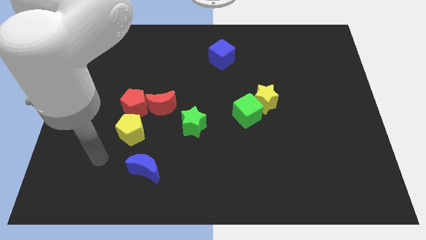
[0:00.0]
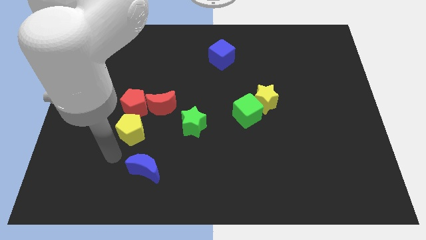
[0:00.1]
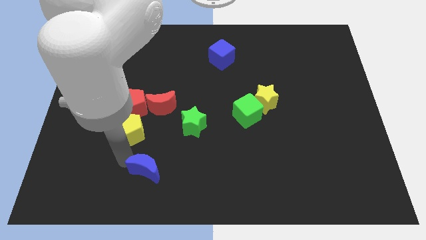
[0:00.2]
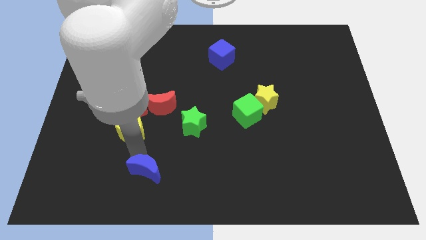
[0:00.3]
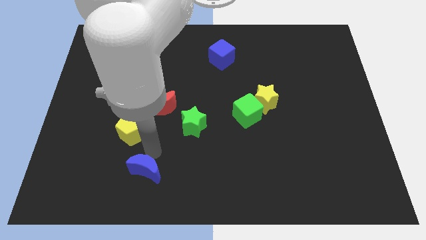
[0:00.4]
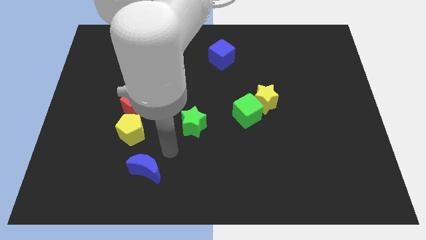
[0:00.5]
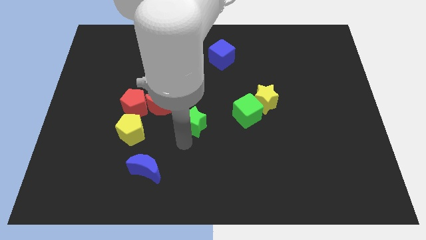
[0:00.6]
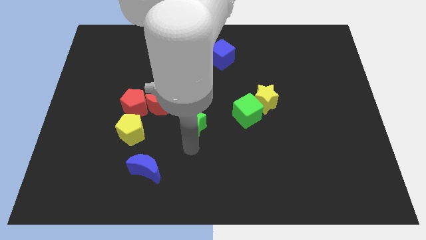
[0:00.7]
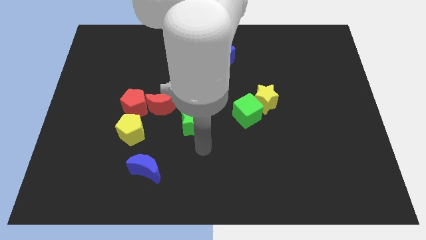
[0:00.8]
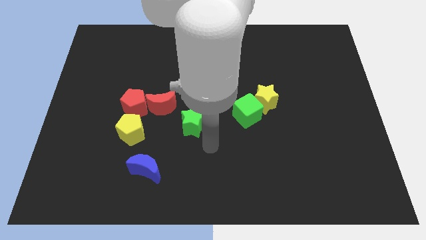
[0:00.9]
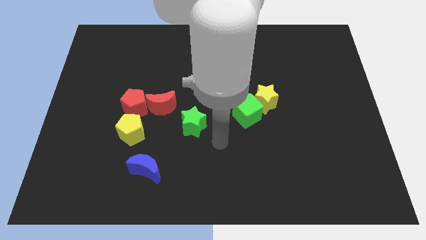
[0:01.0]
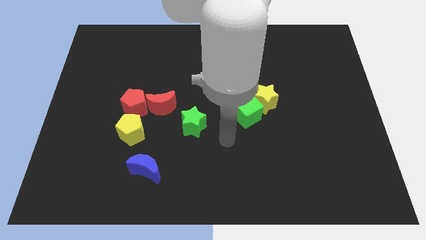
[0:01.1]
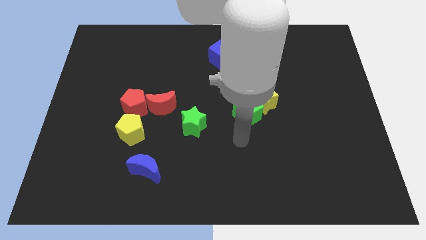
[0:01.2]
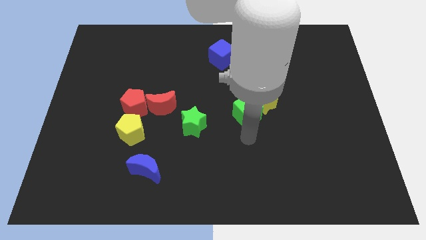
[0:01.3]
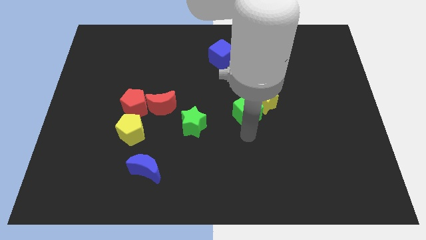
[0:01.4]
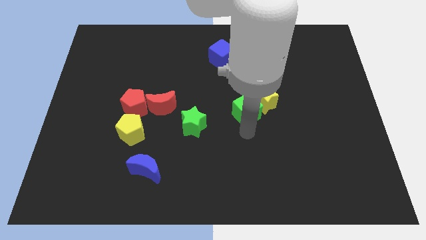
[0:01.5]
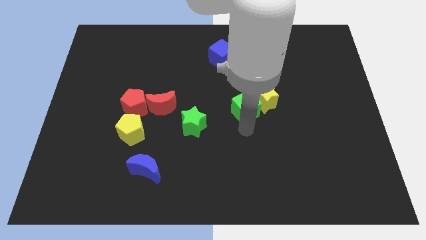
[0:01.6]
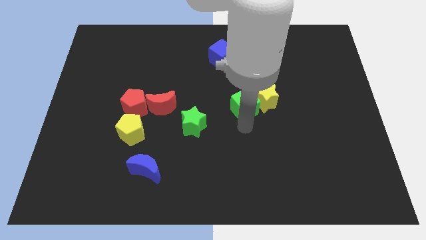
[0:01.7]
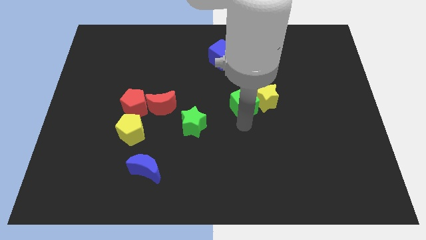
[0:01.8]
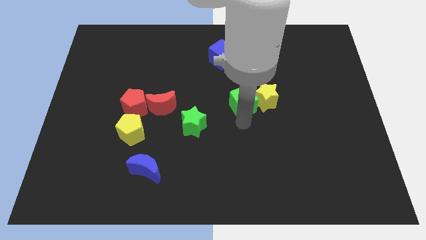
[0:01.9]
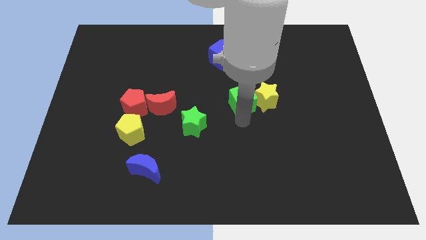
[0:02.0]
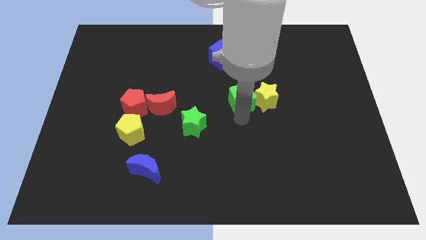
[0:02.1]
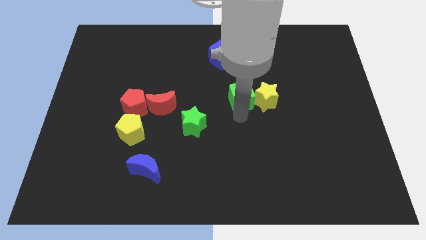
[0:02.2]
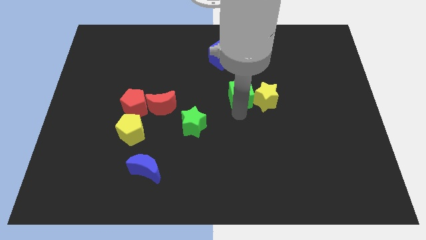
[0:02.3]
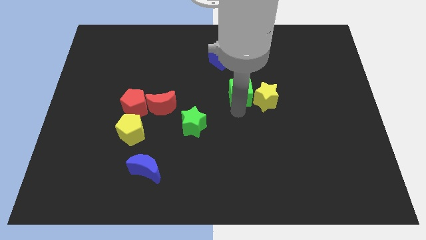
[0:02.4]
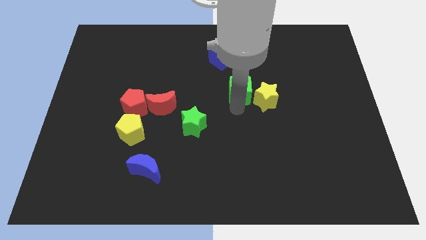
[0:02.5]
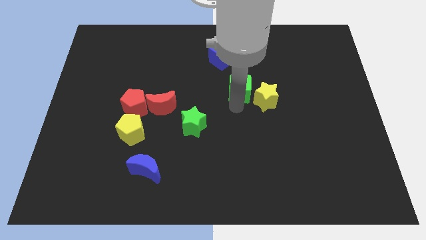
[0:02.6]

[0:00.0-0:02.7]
slide the green cube upwards a little

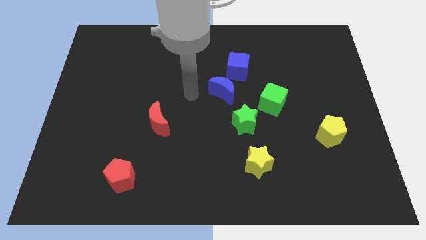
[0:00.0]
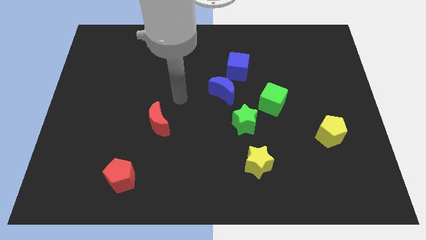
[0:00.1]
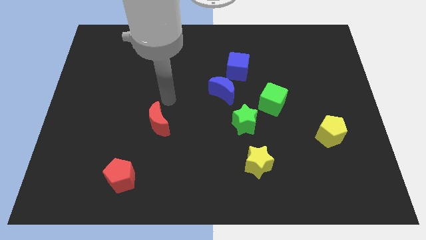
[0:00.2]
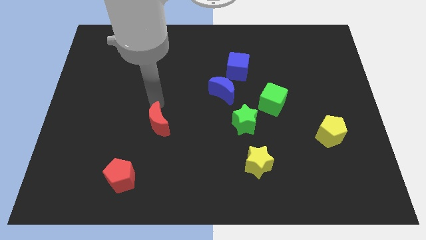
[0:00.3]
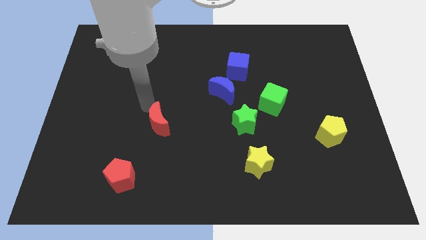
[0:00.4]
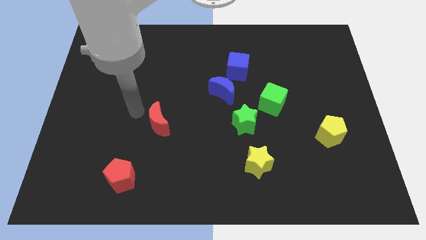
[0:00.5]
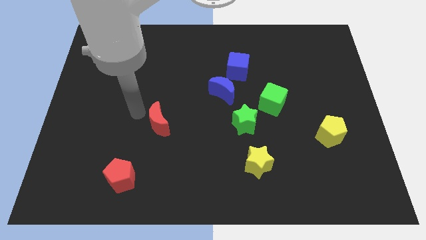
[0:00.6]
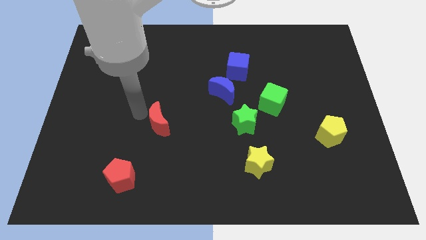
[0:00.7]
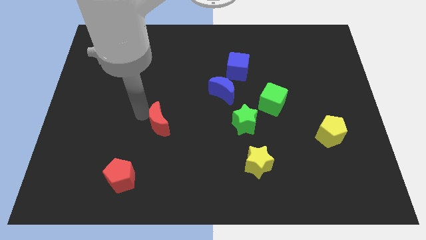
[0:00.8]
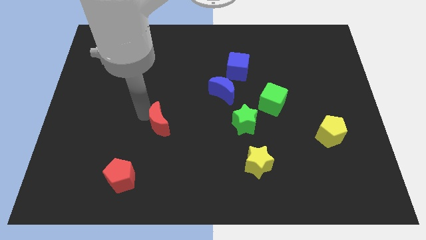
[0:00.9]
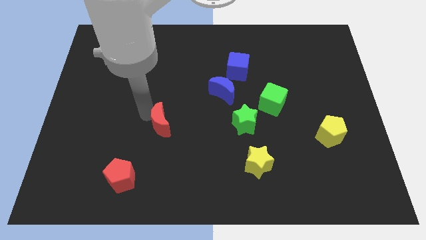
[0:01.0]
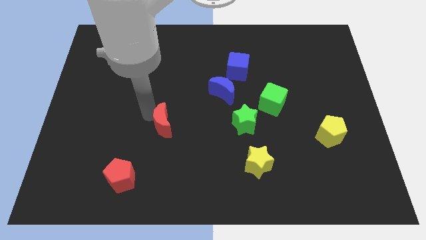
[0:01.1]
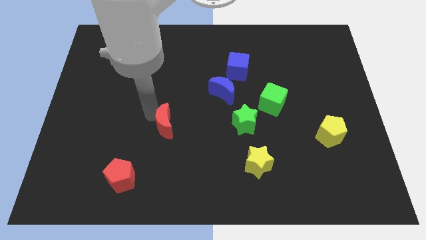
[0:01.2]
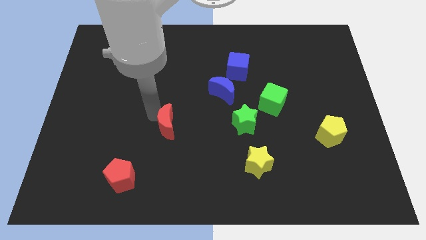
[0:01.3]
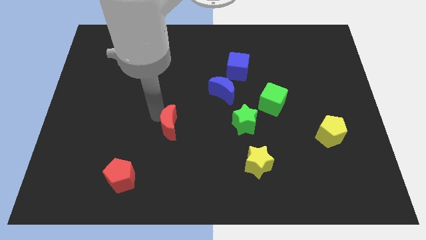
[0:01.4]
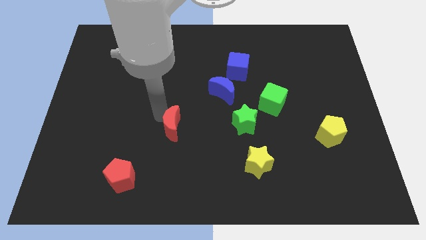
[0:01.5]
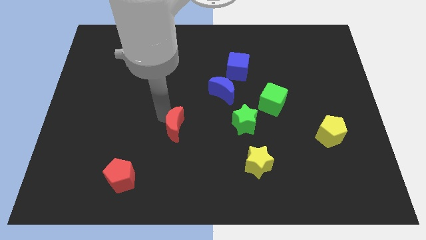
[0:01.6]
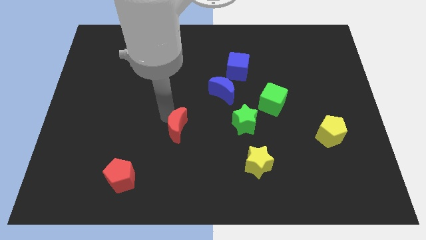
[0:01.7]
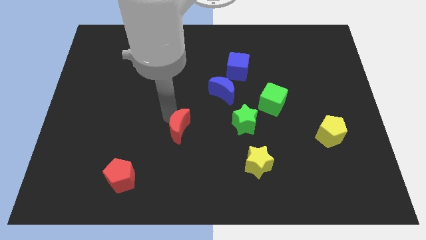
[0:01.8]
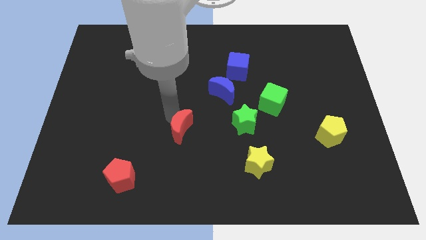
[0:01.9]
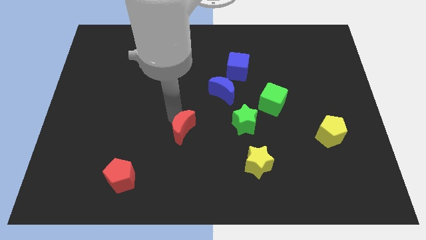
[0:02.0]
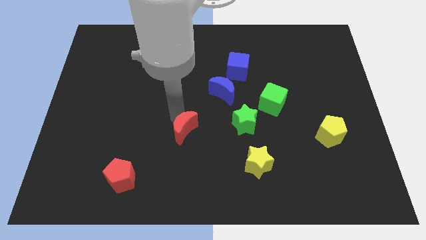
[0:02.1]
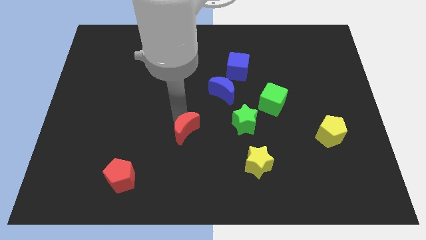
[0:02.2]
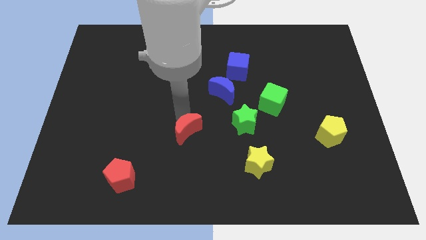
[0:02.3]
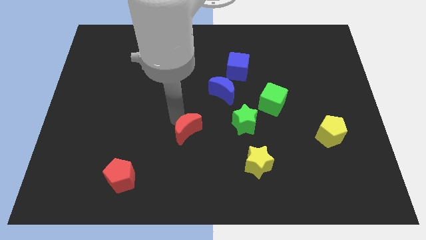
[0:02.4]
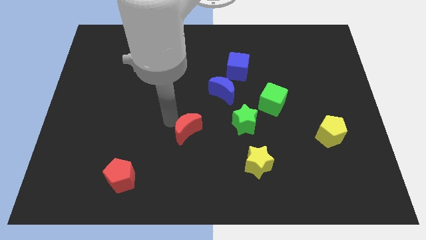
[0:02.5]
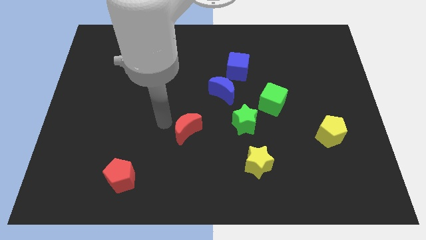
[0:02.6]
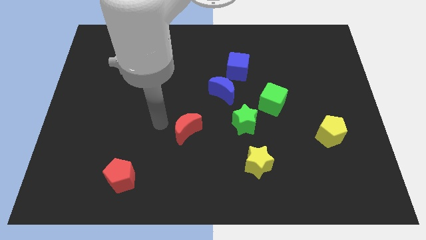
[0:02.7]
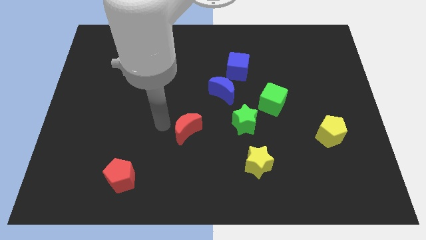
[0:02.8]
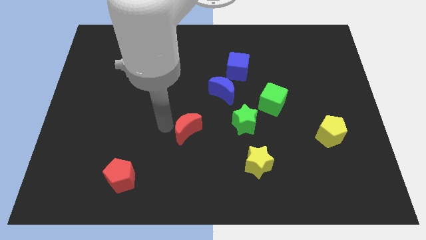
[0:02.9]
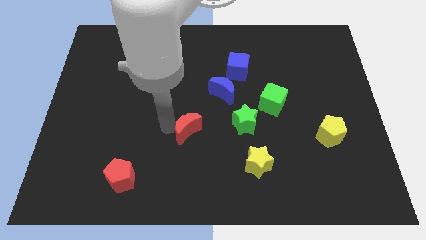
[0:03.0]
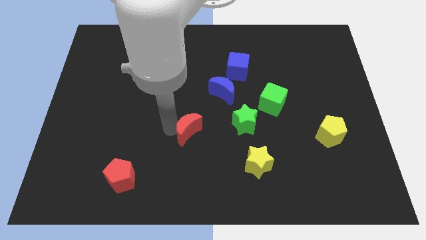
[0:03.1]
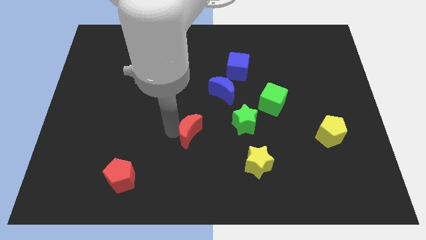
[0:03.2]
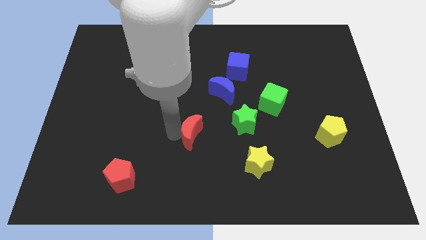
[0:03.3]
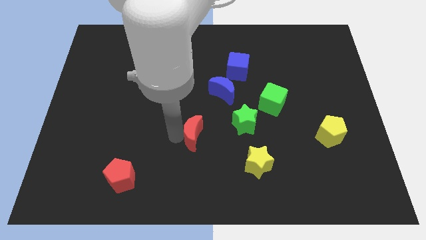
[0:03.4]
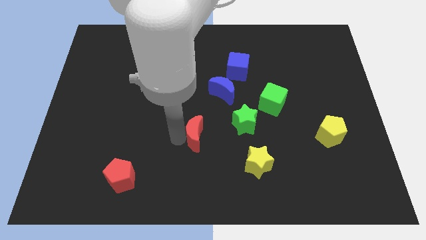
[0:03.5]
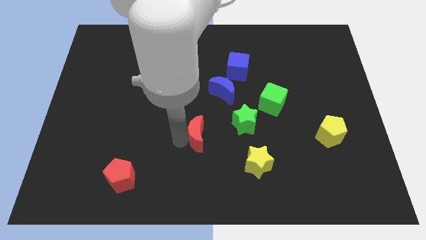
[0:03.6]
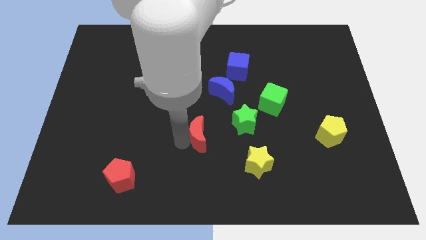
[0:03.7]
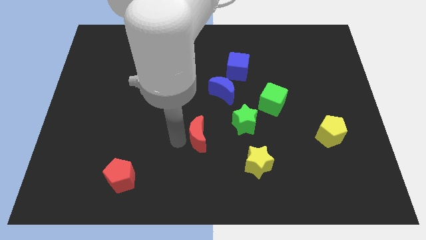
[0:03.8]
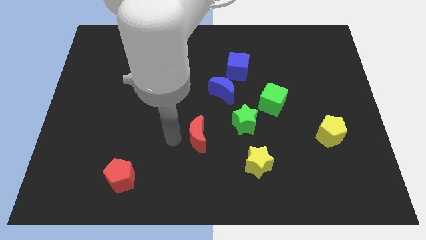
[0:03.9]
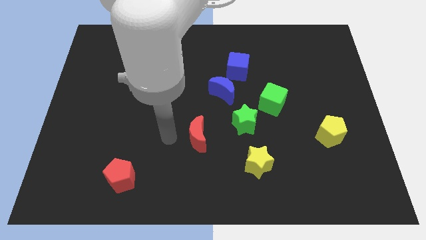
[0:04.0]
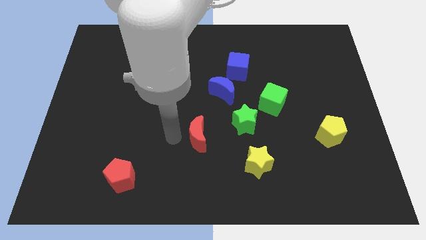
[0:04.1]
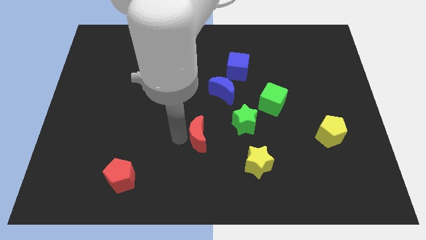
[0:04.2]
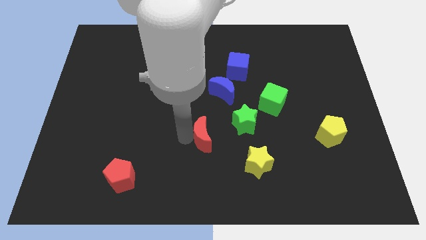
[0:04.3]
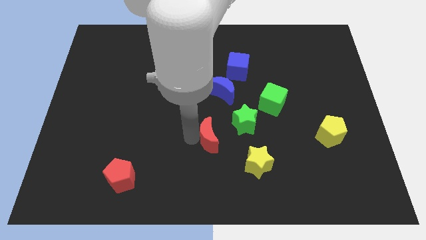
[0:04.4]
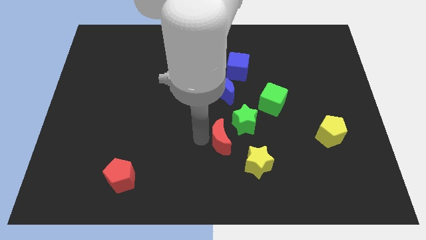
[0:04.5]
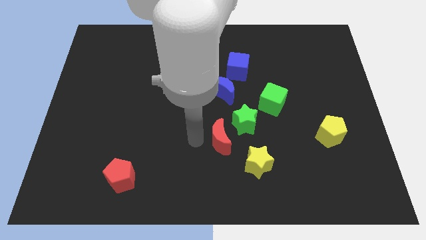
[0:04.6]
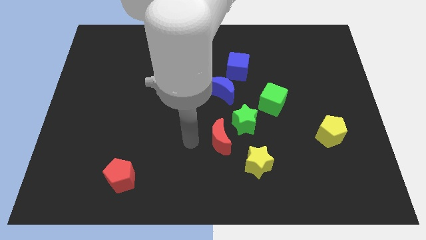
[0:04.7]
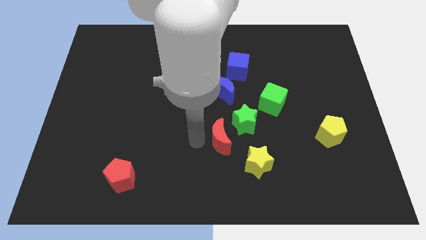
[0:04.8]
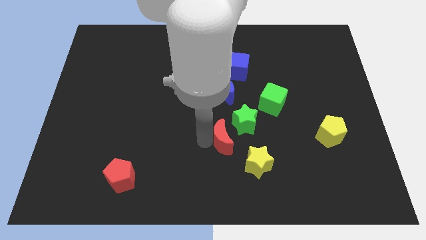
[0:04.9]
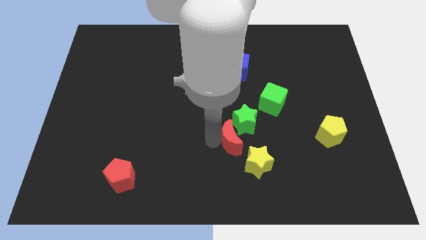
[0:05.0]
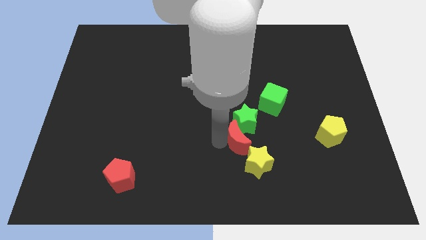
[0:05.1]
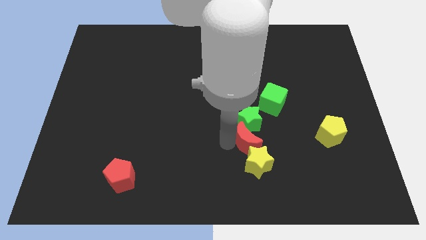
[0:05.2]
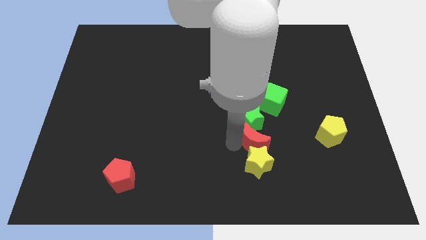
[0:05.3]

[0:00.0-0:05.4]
move the red moon to the right
